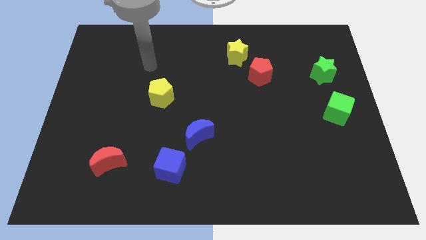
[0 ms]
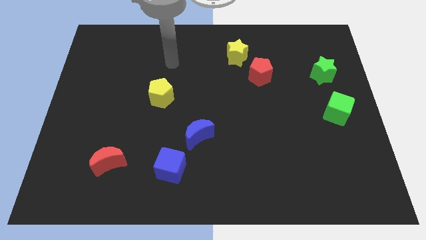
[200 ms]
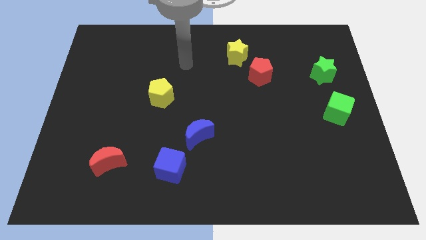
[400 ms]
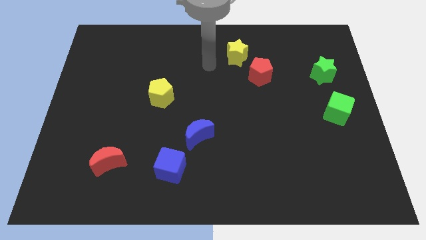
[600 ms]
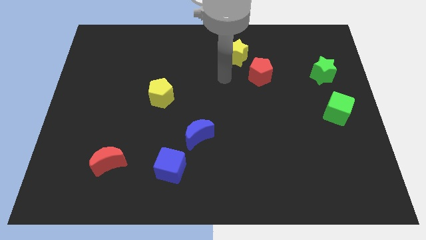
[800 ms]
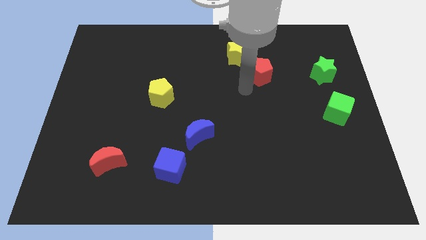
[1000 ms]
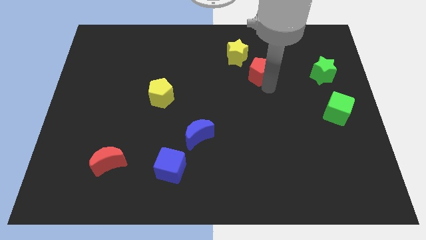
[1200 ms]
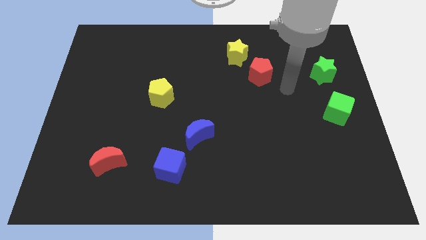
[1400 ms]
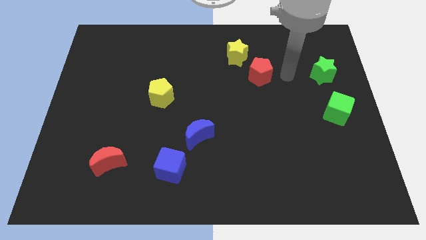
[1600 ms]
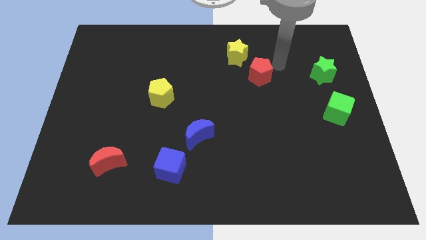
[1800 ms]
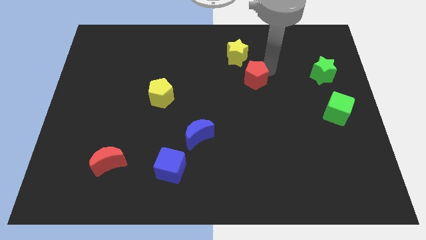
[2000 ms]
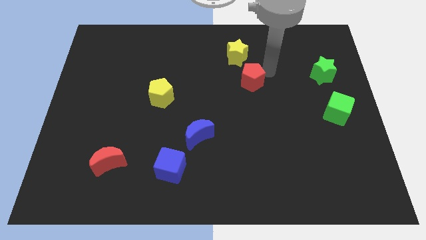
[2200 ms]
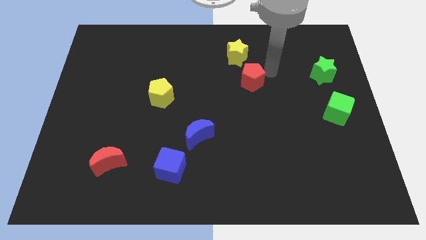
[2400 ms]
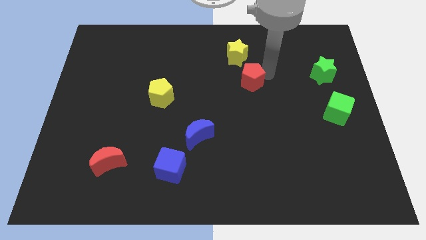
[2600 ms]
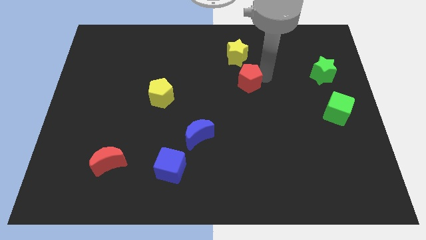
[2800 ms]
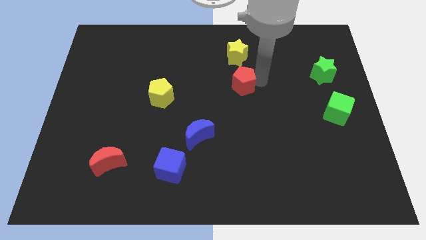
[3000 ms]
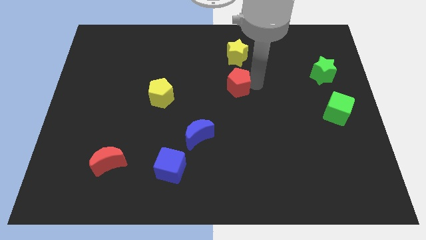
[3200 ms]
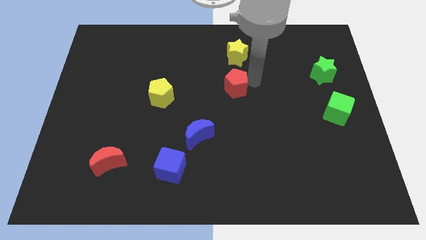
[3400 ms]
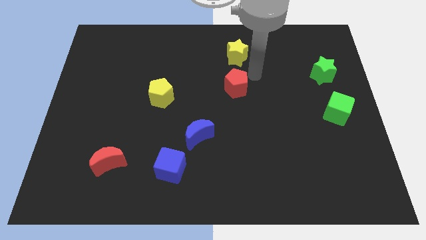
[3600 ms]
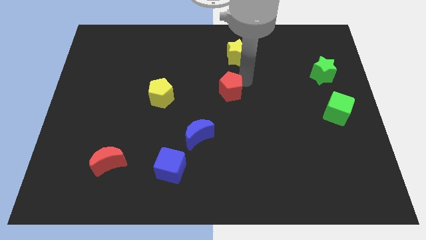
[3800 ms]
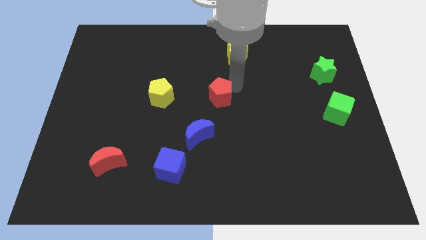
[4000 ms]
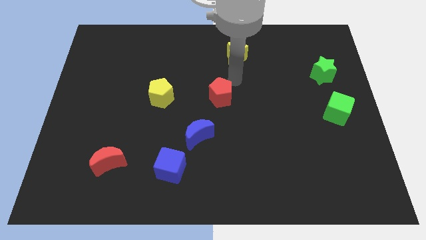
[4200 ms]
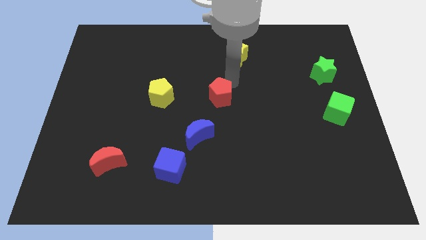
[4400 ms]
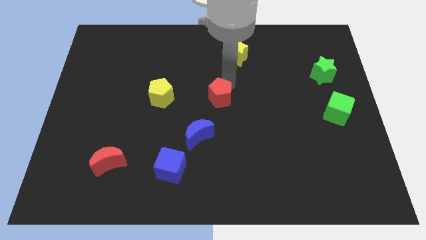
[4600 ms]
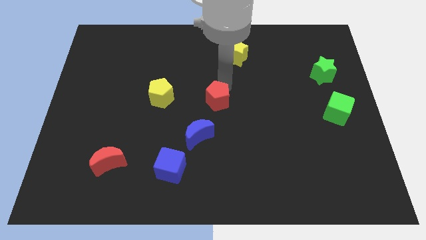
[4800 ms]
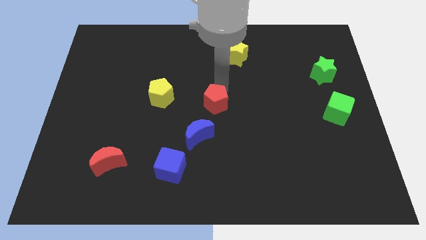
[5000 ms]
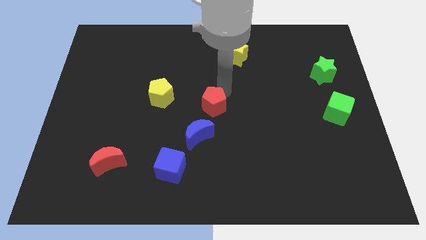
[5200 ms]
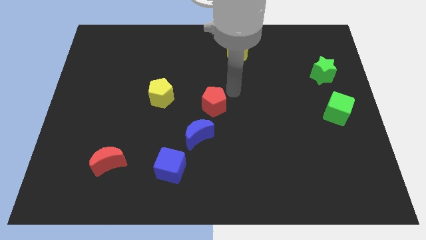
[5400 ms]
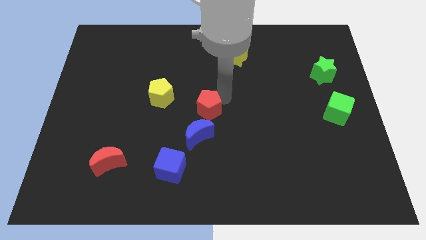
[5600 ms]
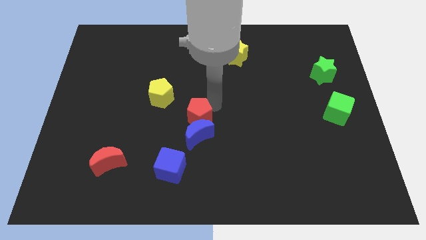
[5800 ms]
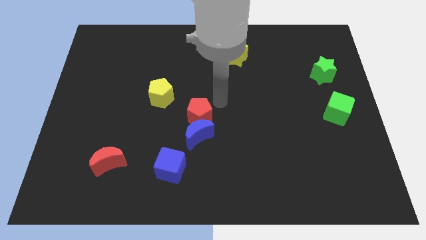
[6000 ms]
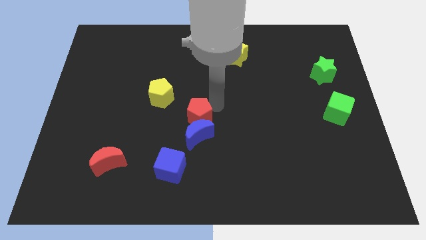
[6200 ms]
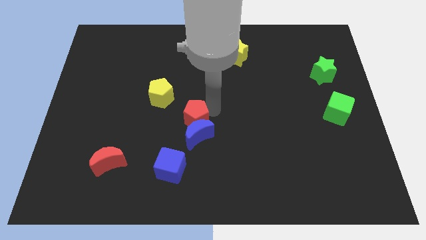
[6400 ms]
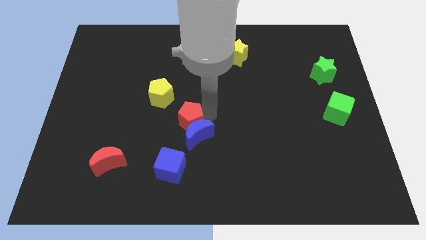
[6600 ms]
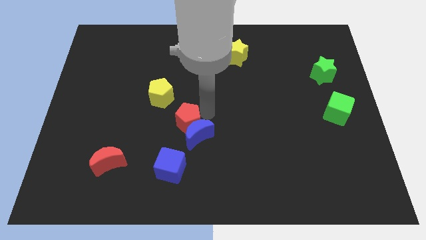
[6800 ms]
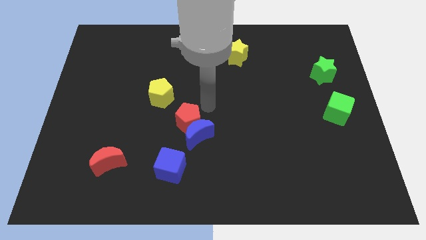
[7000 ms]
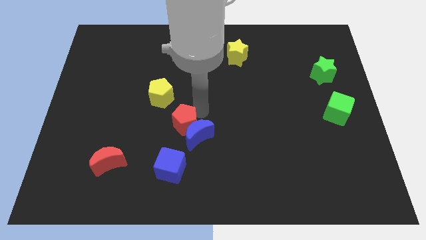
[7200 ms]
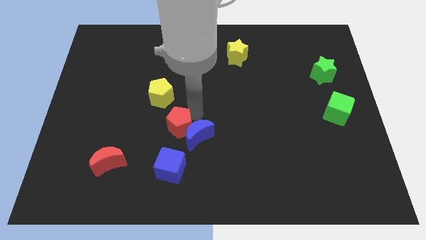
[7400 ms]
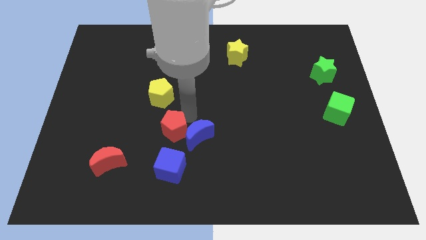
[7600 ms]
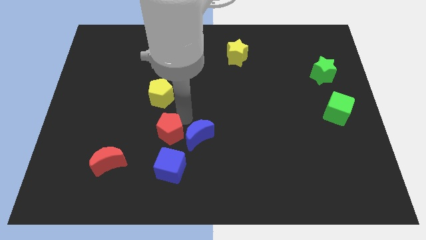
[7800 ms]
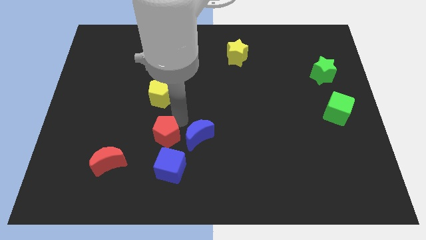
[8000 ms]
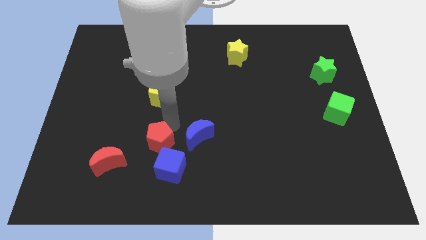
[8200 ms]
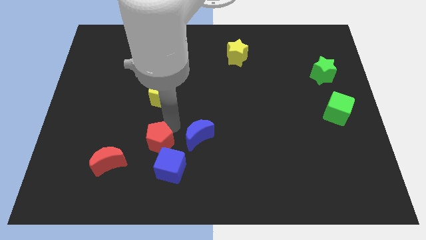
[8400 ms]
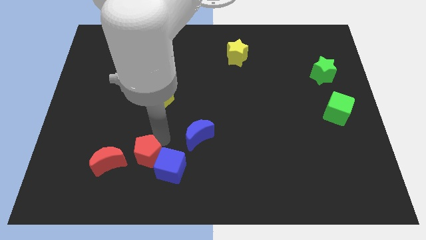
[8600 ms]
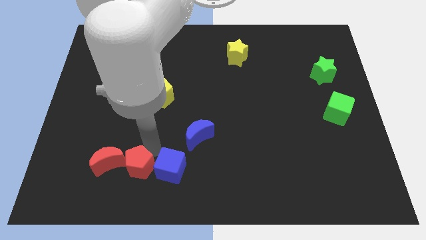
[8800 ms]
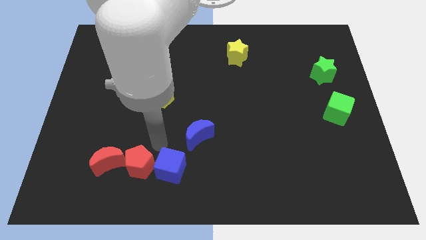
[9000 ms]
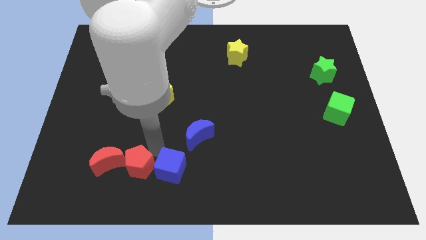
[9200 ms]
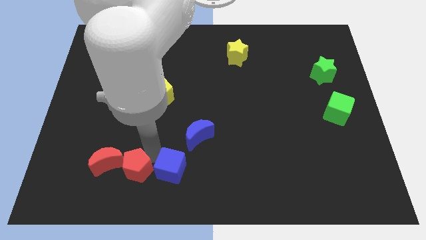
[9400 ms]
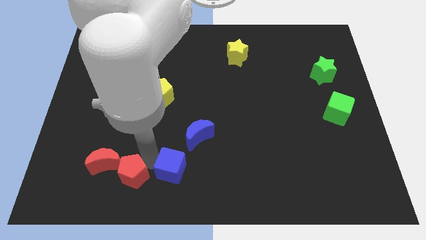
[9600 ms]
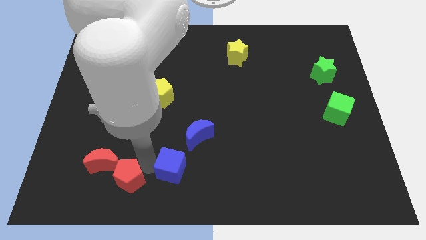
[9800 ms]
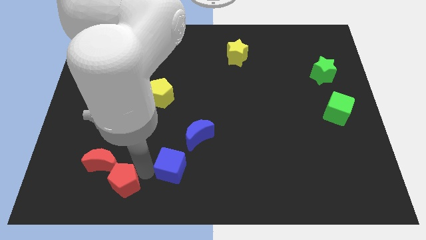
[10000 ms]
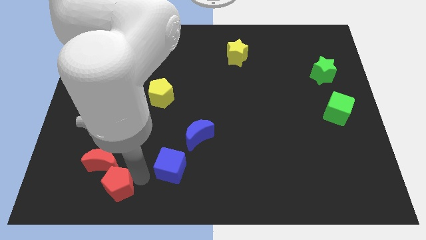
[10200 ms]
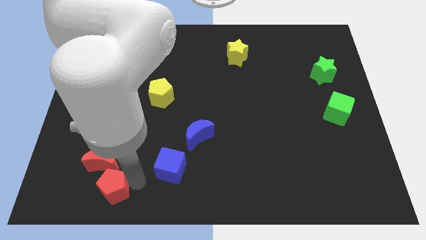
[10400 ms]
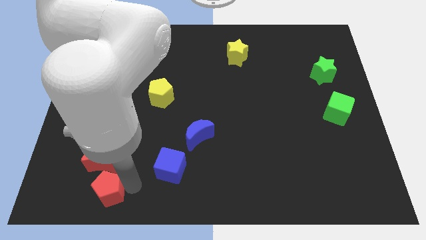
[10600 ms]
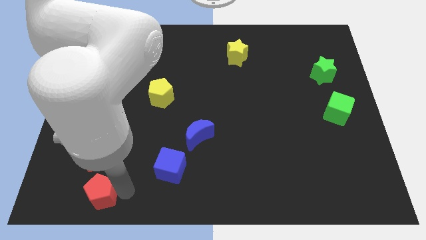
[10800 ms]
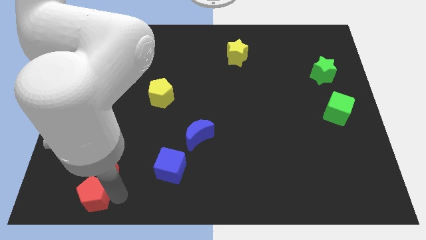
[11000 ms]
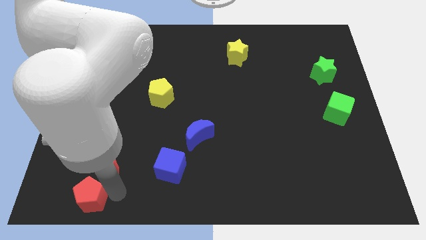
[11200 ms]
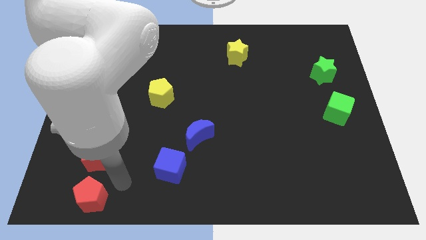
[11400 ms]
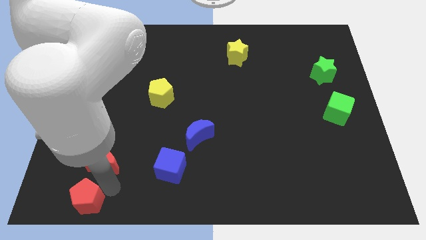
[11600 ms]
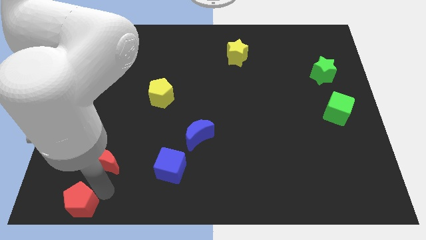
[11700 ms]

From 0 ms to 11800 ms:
put the red pentagon to the bottom left corner

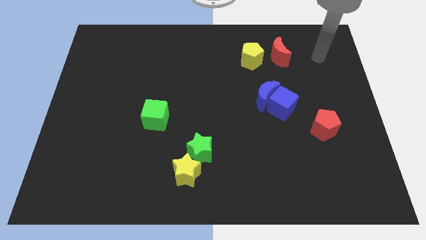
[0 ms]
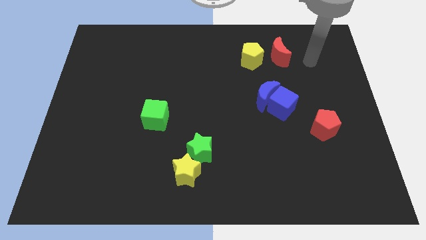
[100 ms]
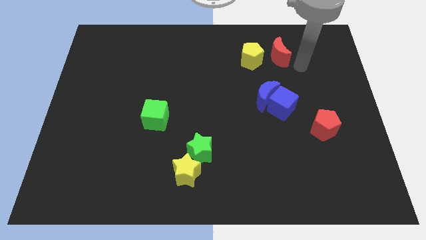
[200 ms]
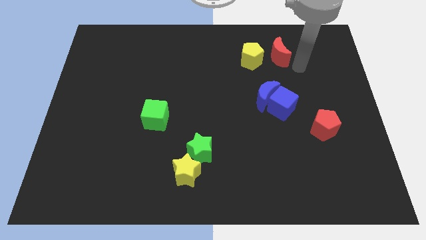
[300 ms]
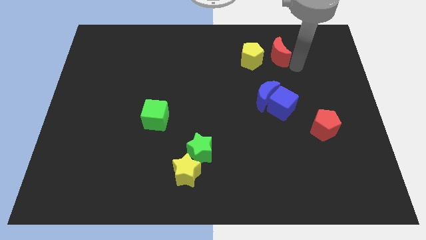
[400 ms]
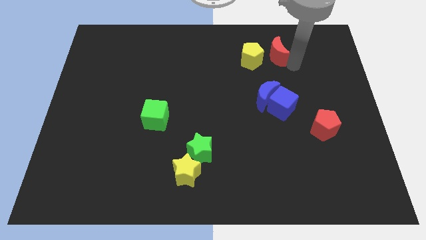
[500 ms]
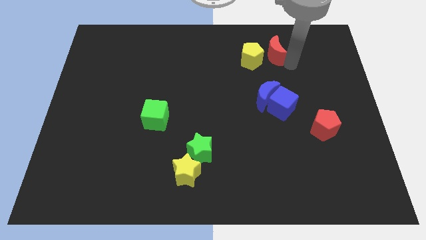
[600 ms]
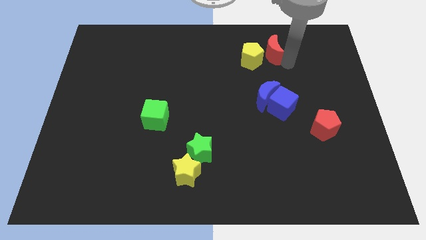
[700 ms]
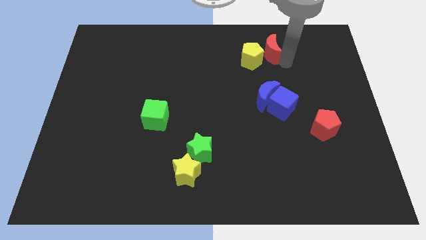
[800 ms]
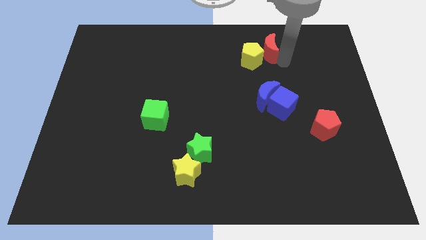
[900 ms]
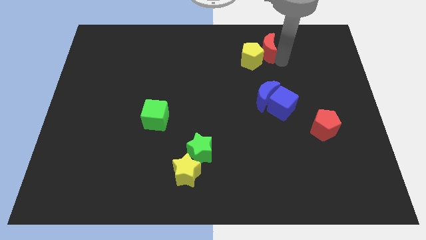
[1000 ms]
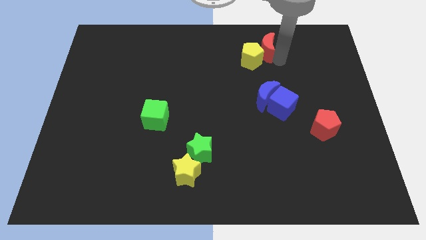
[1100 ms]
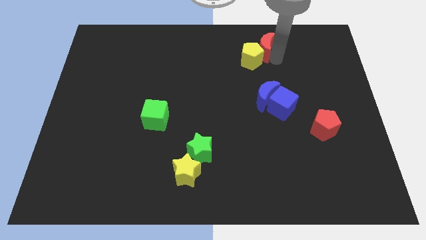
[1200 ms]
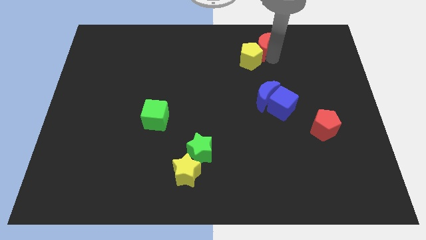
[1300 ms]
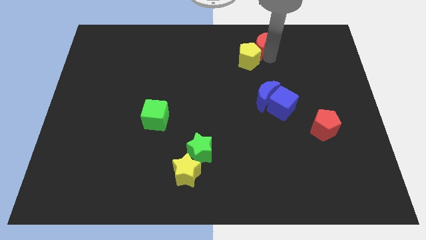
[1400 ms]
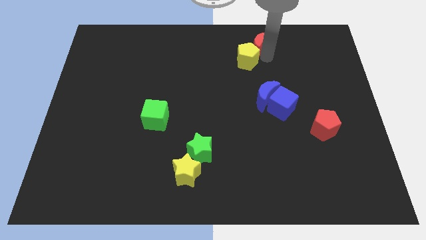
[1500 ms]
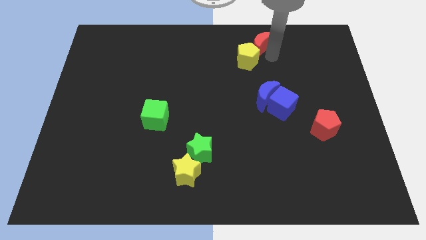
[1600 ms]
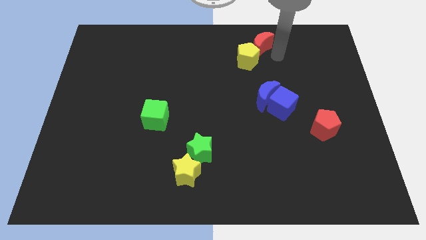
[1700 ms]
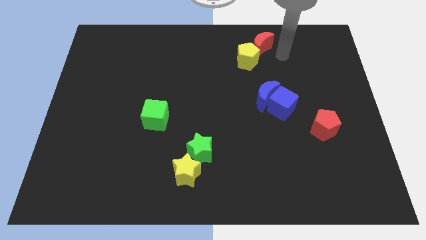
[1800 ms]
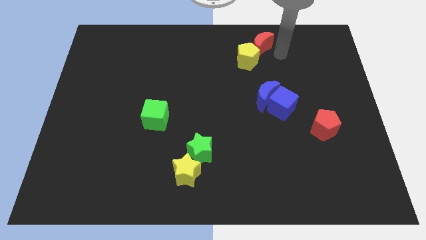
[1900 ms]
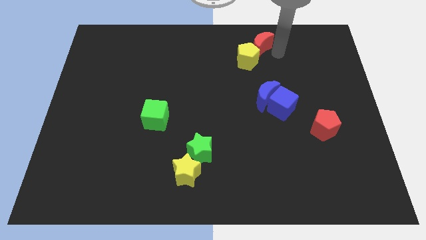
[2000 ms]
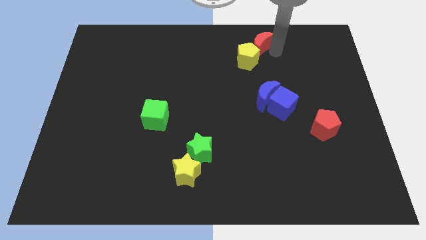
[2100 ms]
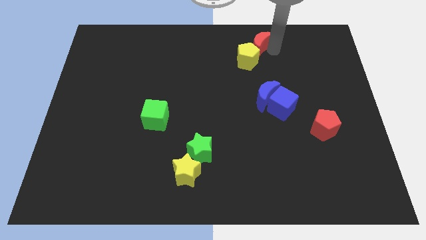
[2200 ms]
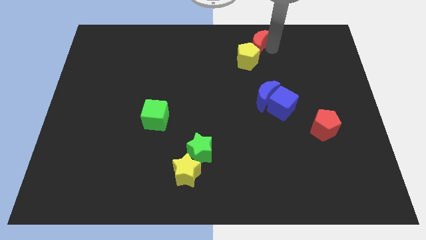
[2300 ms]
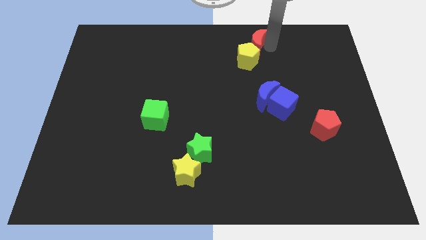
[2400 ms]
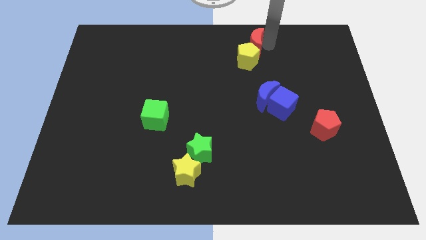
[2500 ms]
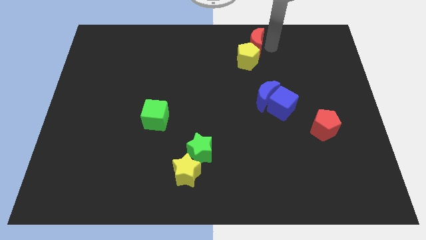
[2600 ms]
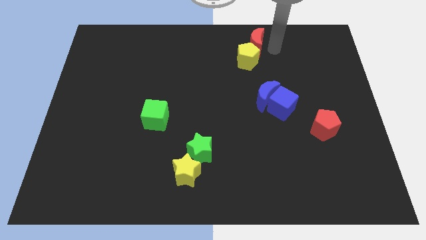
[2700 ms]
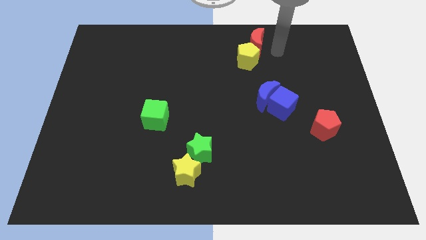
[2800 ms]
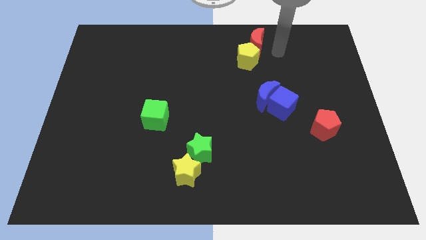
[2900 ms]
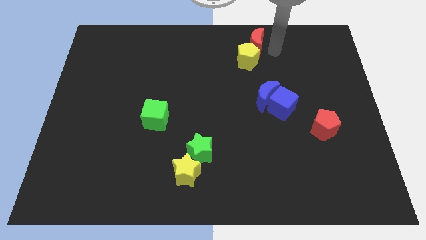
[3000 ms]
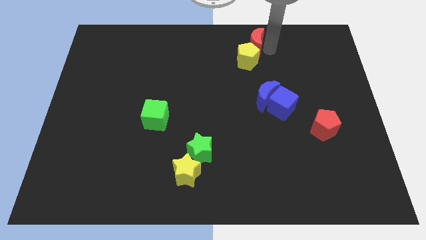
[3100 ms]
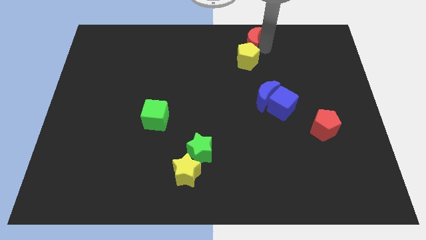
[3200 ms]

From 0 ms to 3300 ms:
move the red moon to the top side
